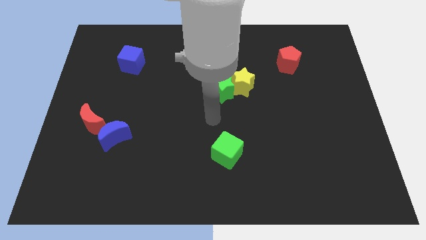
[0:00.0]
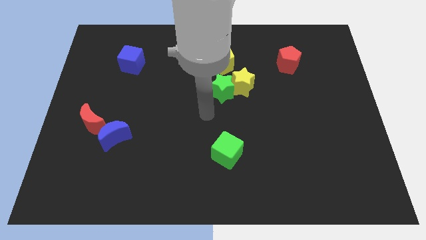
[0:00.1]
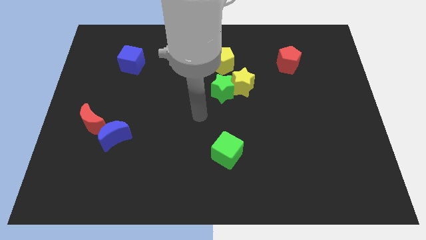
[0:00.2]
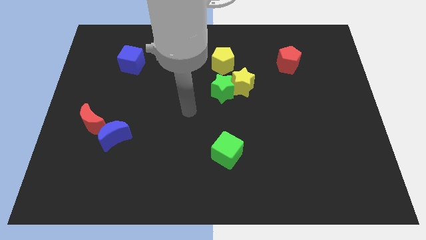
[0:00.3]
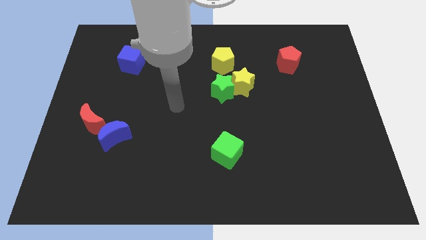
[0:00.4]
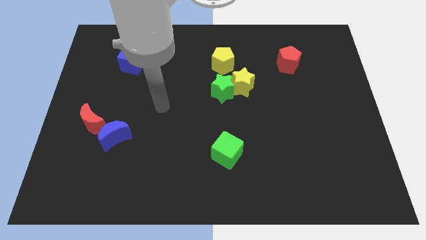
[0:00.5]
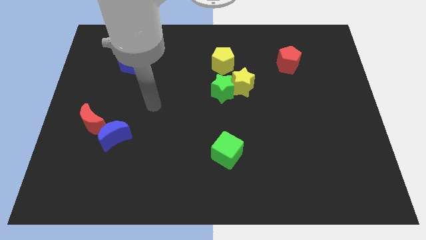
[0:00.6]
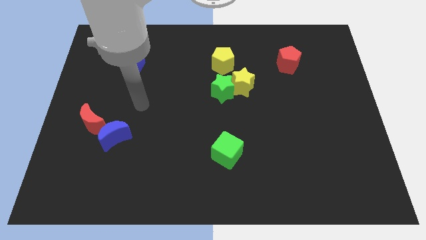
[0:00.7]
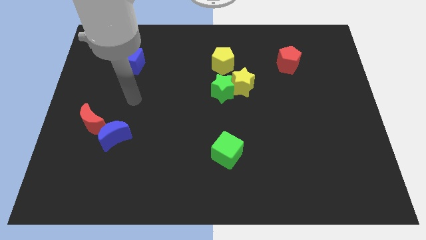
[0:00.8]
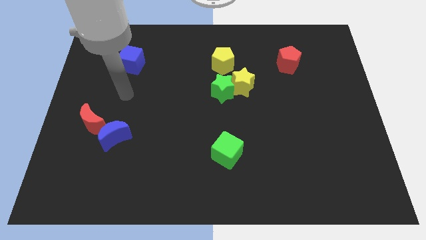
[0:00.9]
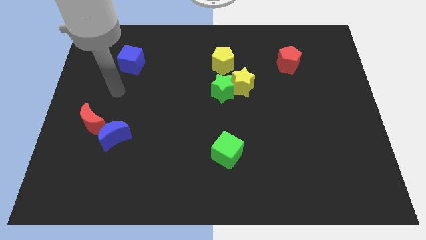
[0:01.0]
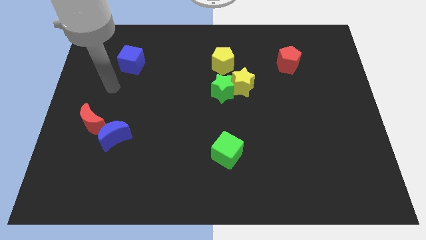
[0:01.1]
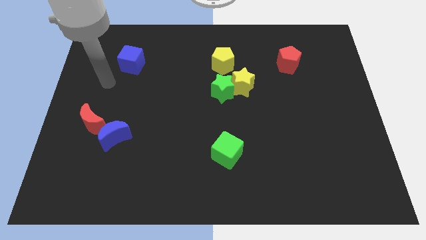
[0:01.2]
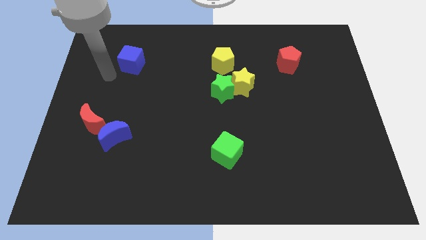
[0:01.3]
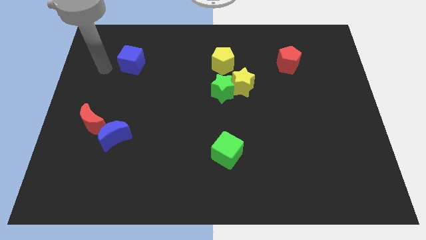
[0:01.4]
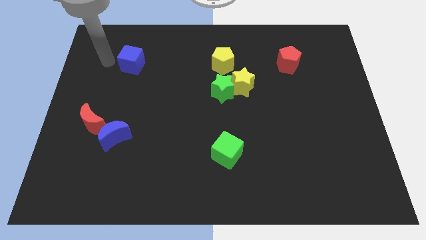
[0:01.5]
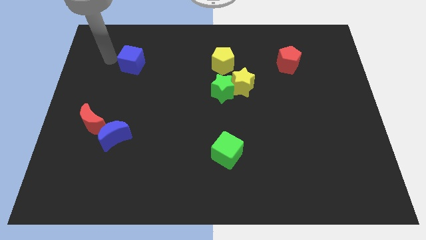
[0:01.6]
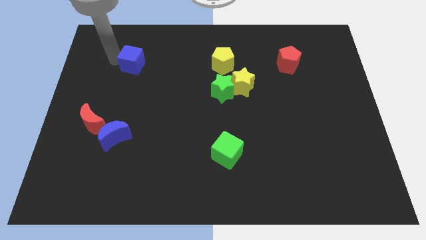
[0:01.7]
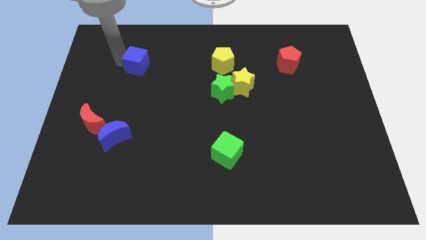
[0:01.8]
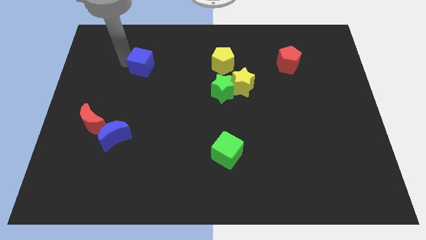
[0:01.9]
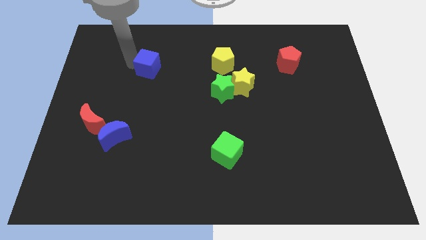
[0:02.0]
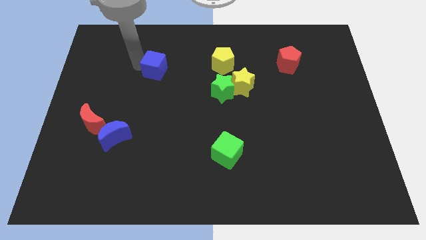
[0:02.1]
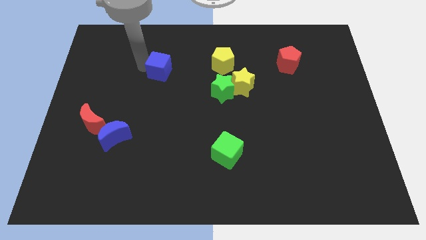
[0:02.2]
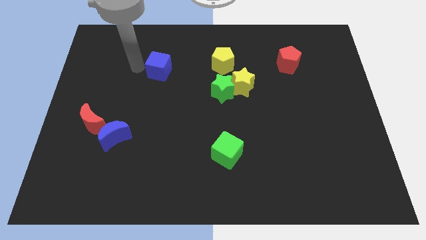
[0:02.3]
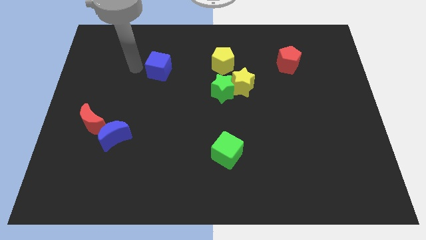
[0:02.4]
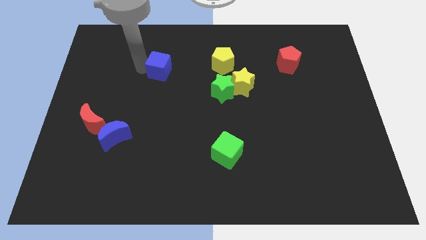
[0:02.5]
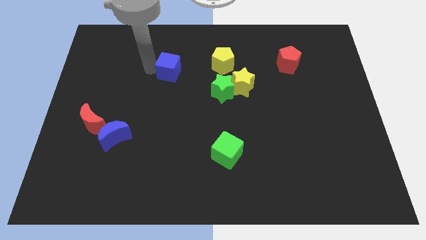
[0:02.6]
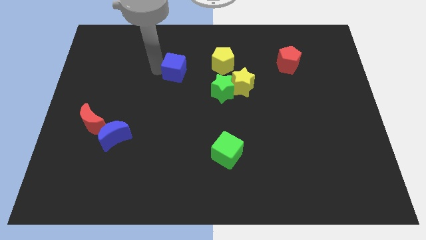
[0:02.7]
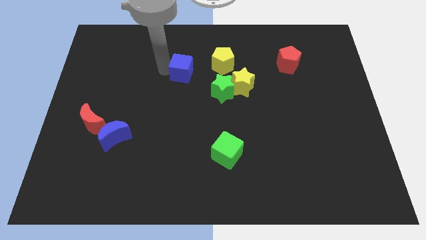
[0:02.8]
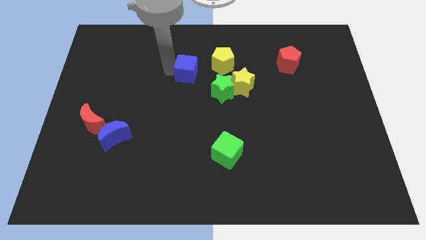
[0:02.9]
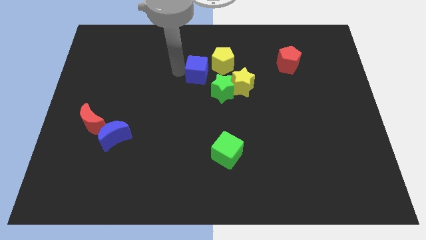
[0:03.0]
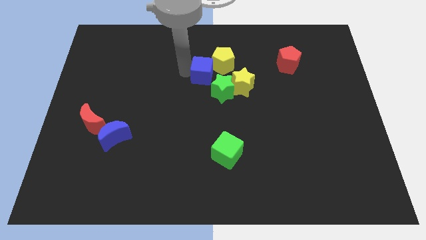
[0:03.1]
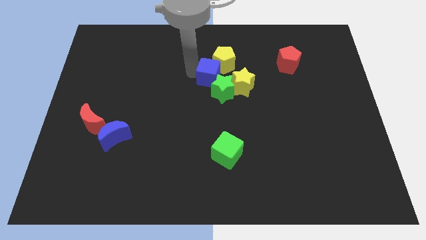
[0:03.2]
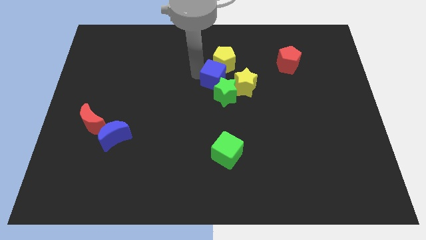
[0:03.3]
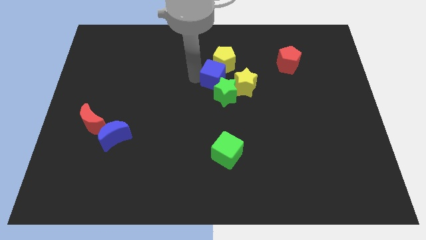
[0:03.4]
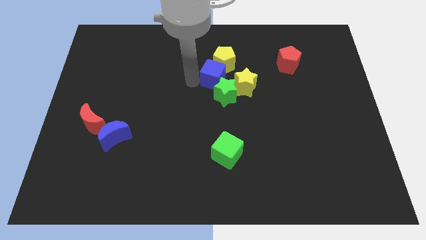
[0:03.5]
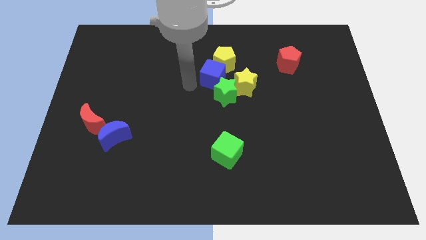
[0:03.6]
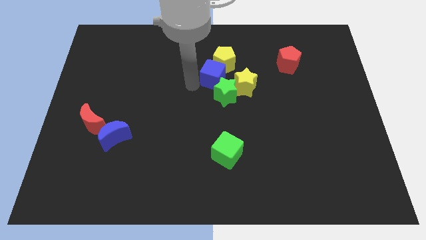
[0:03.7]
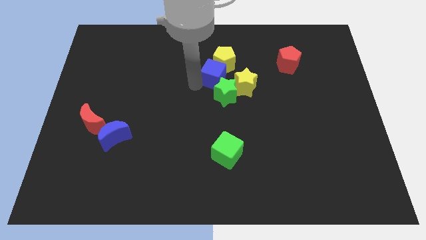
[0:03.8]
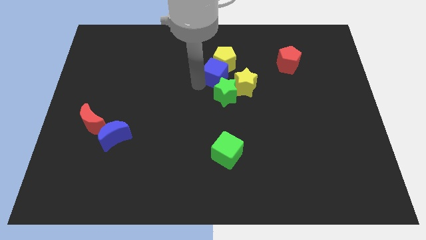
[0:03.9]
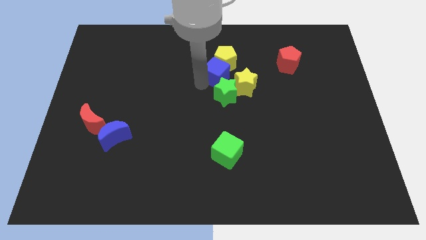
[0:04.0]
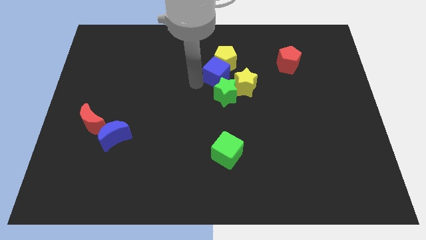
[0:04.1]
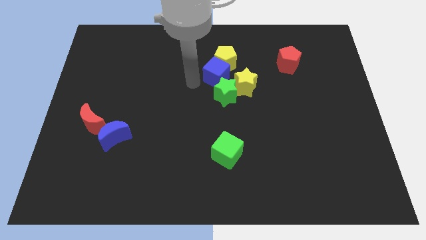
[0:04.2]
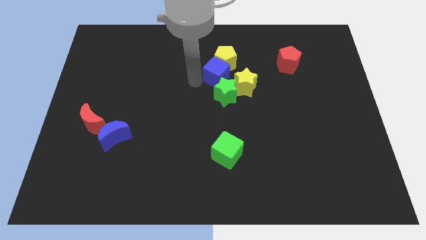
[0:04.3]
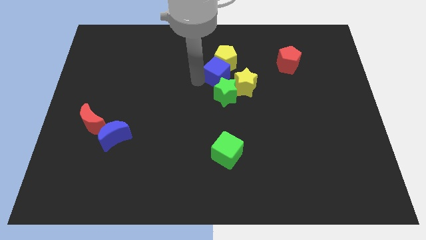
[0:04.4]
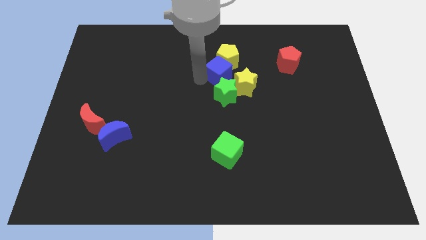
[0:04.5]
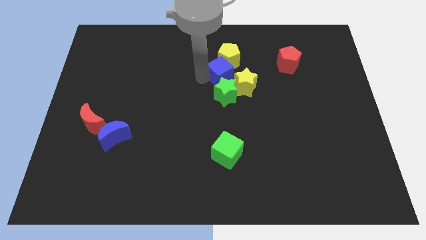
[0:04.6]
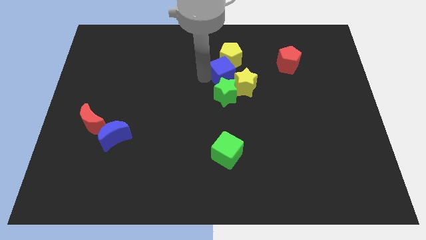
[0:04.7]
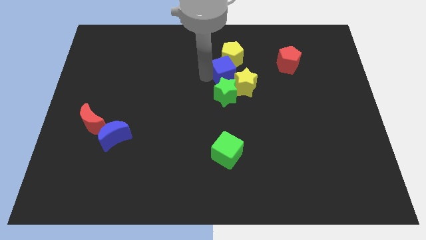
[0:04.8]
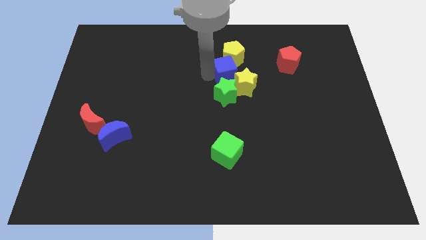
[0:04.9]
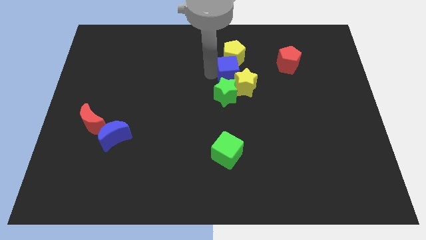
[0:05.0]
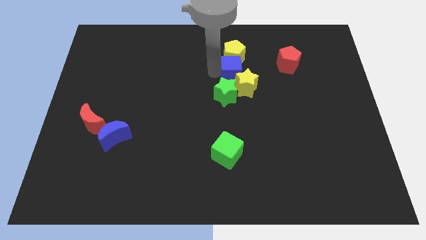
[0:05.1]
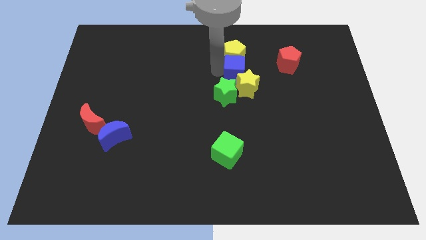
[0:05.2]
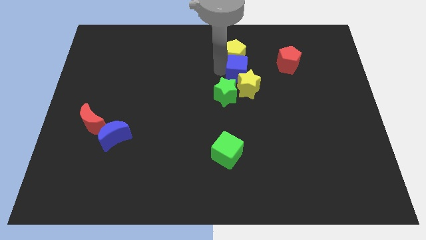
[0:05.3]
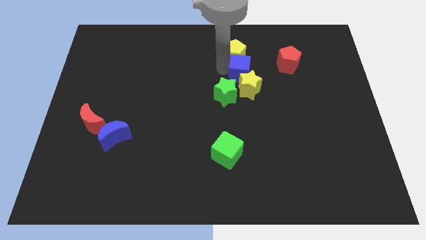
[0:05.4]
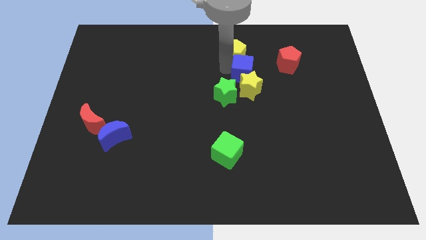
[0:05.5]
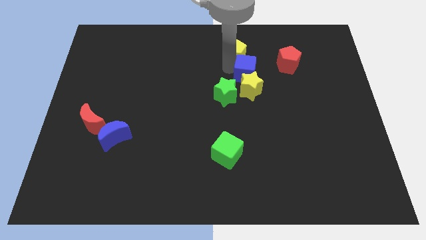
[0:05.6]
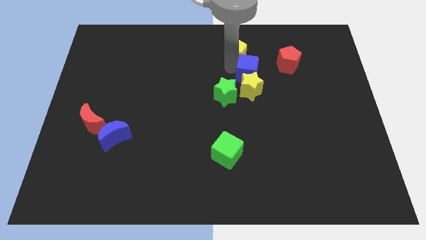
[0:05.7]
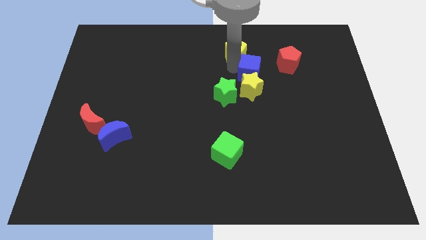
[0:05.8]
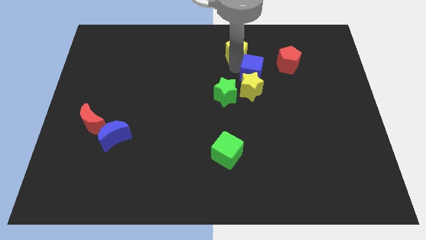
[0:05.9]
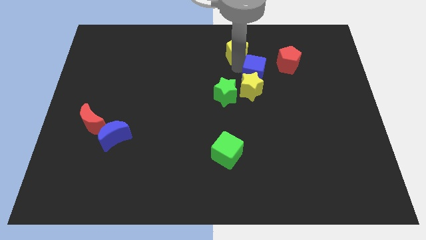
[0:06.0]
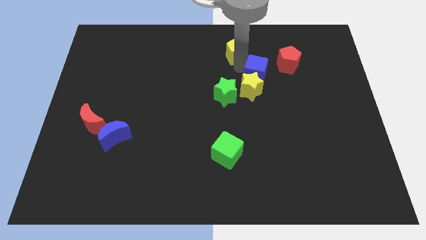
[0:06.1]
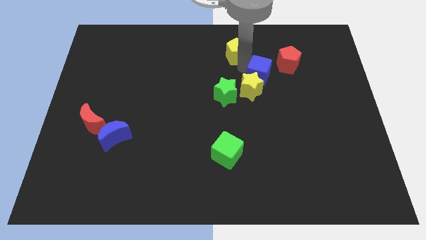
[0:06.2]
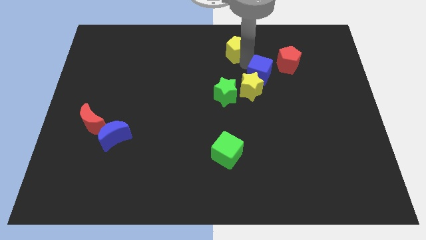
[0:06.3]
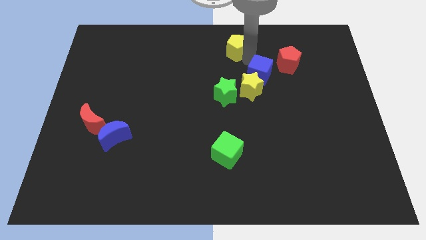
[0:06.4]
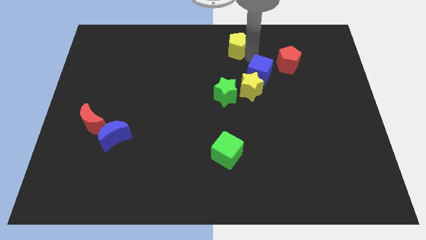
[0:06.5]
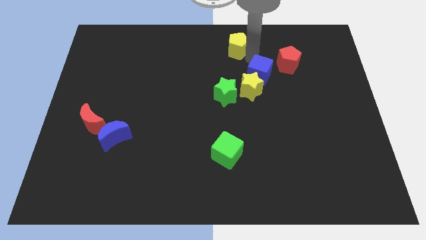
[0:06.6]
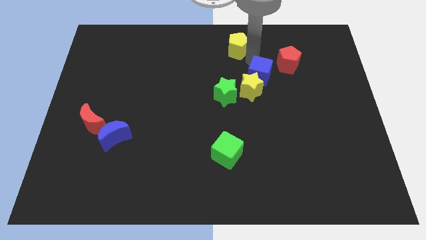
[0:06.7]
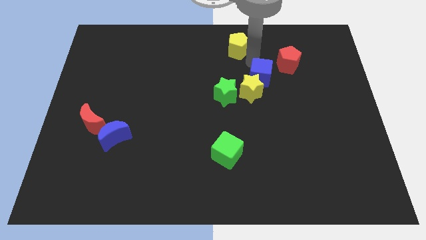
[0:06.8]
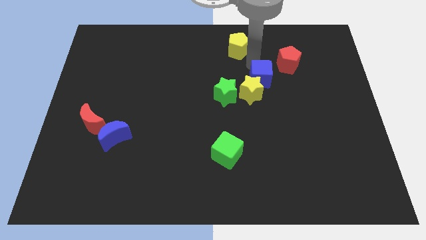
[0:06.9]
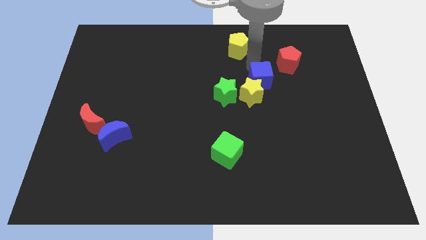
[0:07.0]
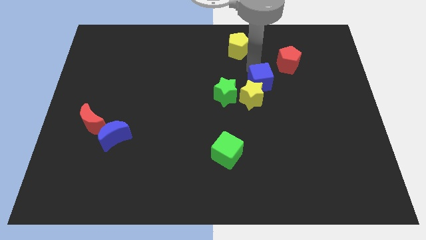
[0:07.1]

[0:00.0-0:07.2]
put the blue cube just right of the green star
